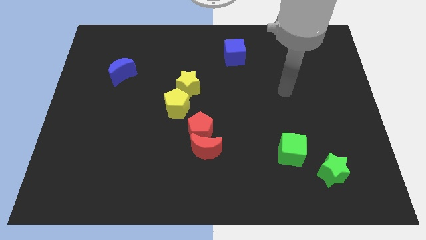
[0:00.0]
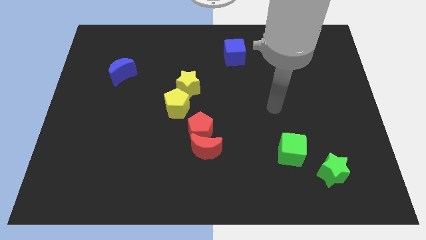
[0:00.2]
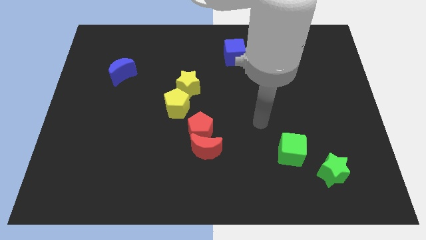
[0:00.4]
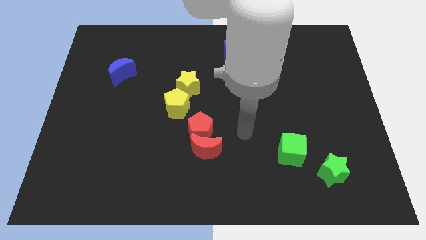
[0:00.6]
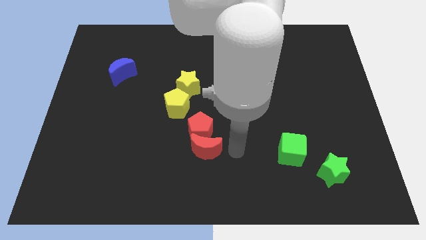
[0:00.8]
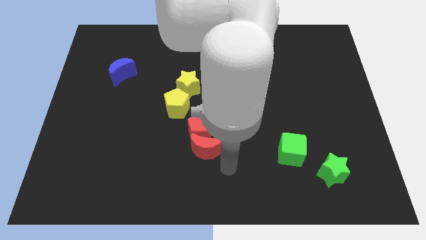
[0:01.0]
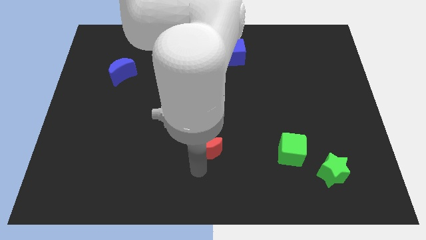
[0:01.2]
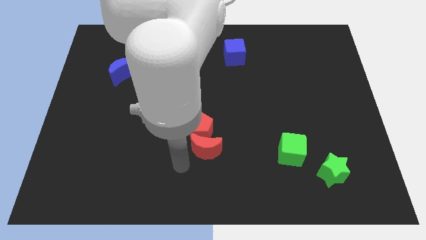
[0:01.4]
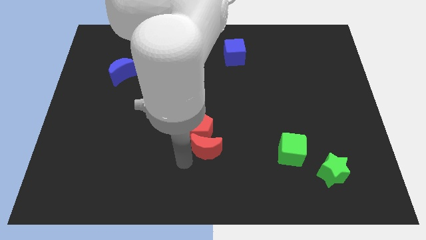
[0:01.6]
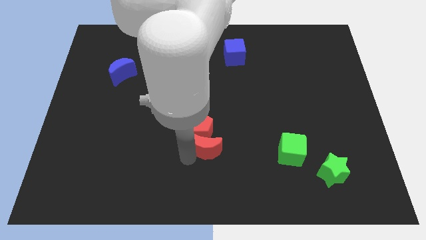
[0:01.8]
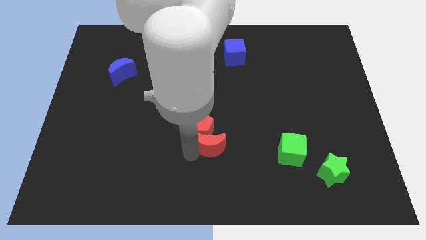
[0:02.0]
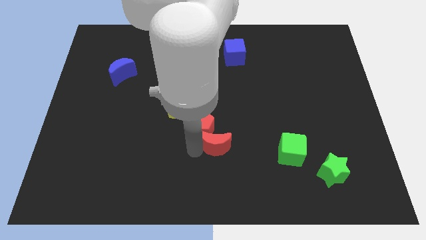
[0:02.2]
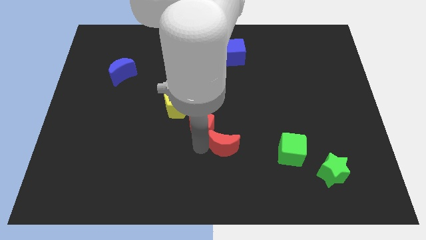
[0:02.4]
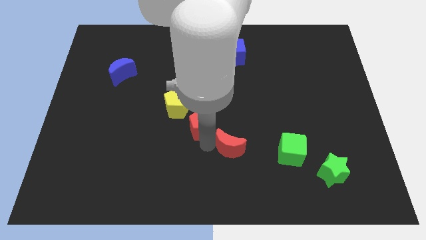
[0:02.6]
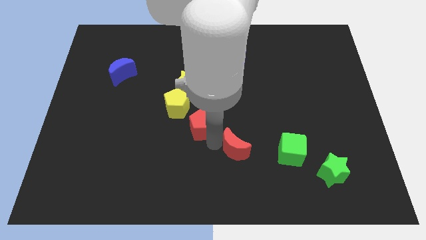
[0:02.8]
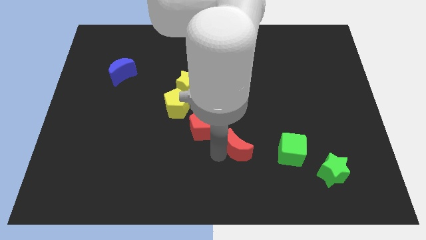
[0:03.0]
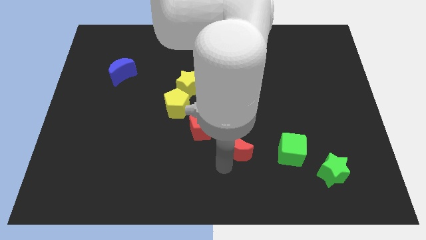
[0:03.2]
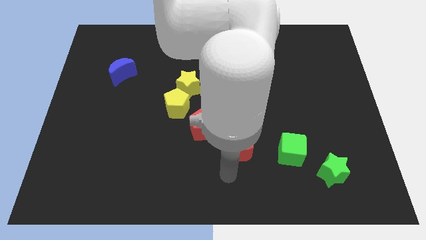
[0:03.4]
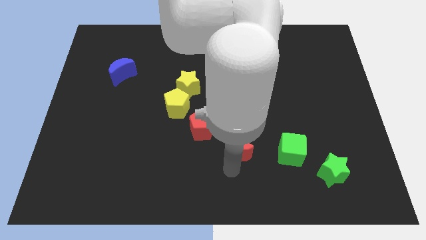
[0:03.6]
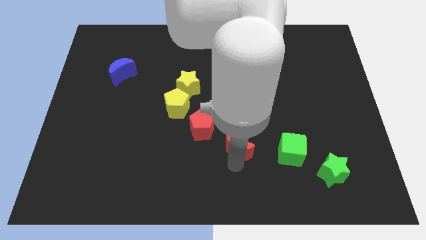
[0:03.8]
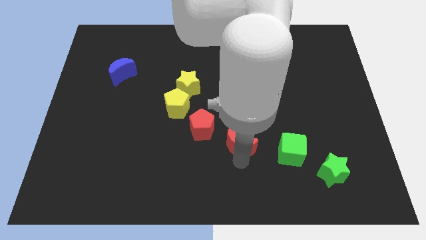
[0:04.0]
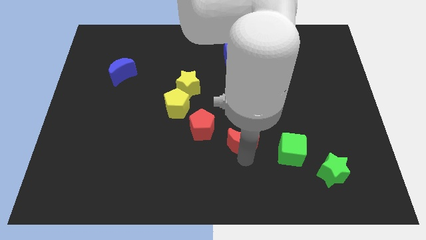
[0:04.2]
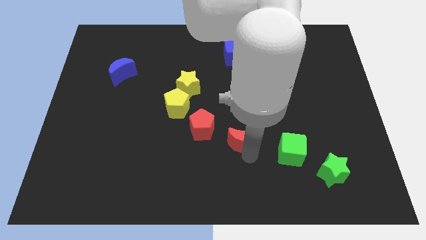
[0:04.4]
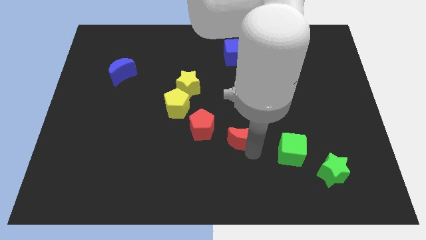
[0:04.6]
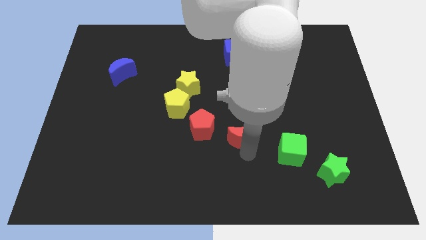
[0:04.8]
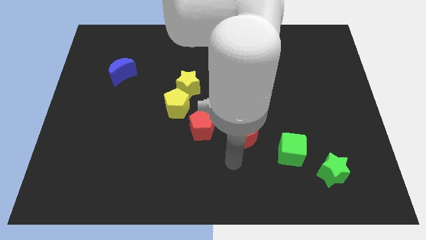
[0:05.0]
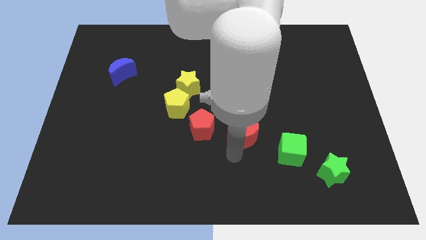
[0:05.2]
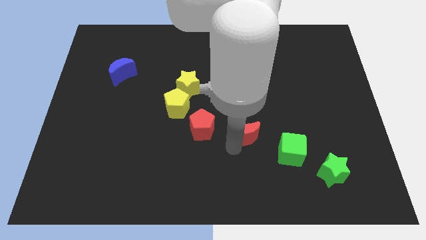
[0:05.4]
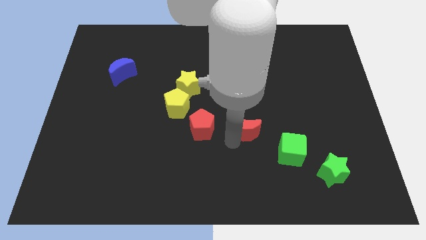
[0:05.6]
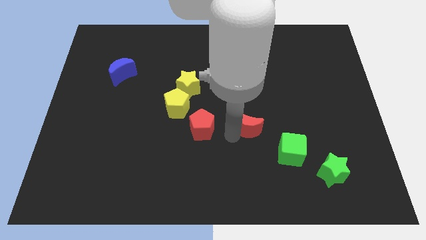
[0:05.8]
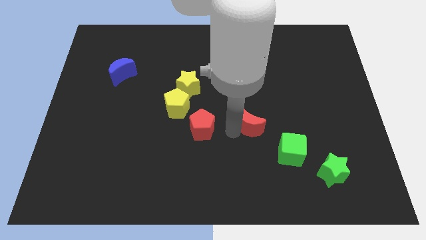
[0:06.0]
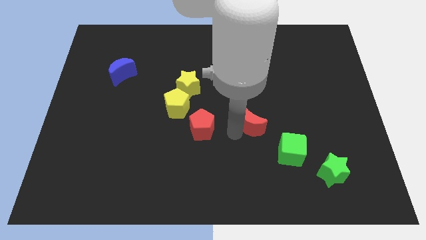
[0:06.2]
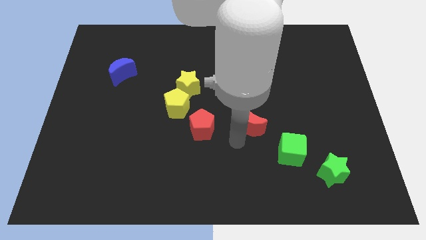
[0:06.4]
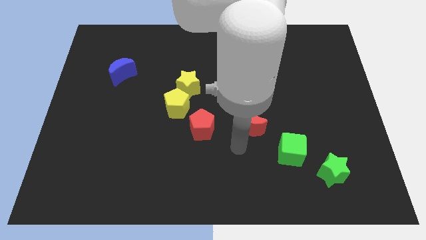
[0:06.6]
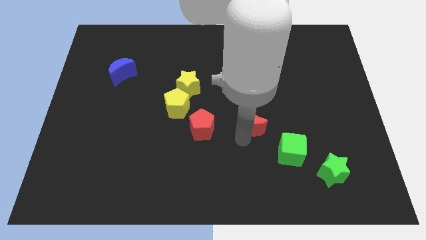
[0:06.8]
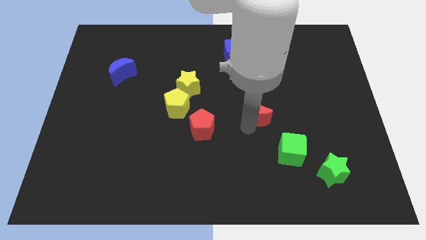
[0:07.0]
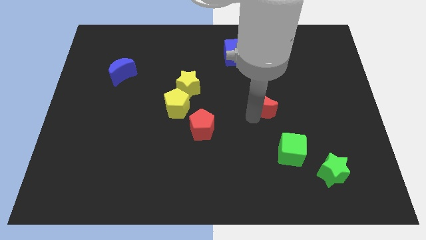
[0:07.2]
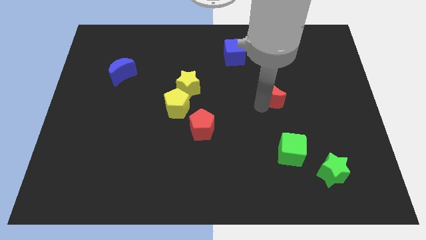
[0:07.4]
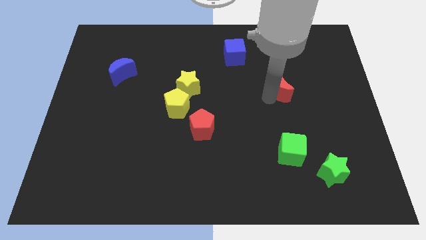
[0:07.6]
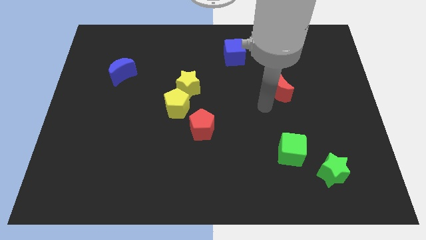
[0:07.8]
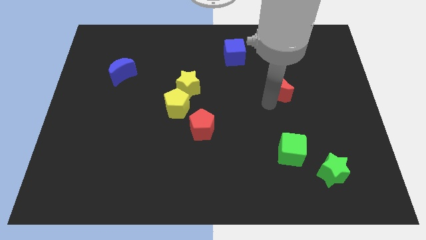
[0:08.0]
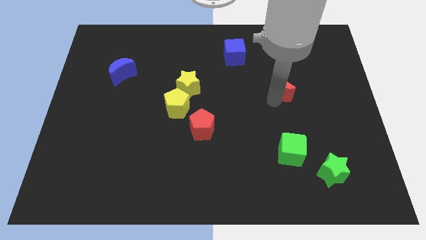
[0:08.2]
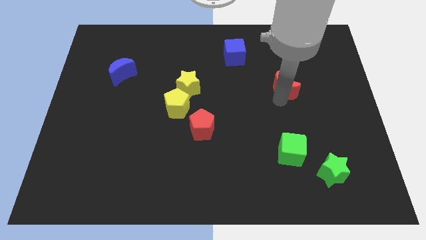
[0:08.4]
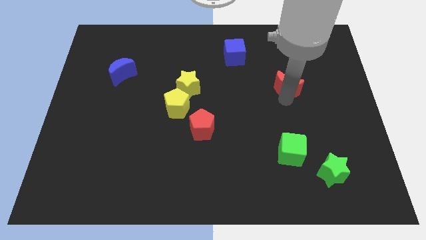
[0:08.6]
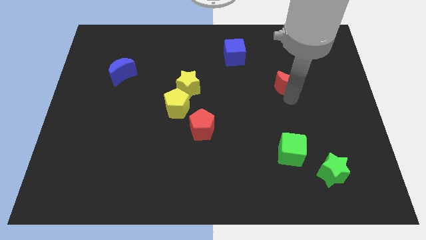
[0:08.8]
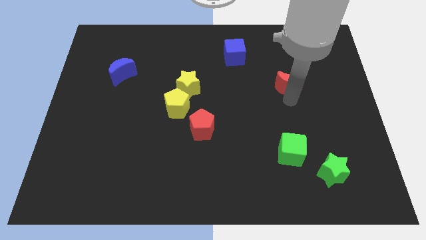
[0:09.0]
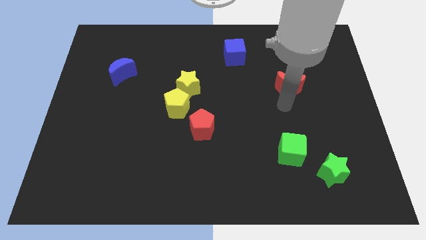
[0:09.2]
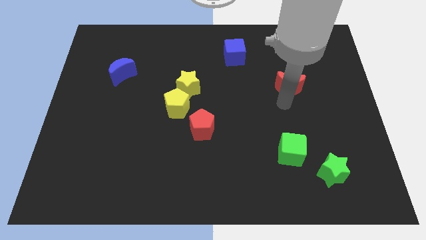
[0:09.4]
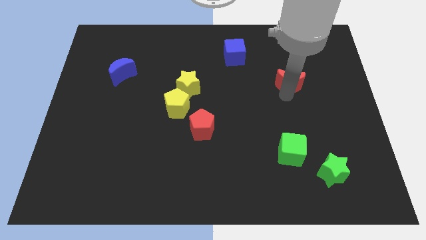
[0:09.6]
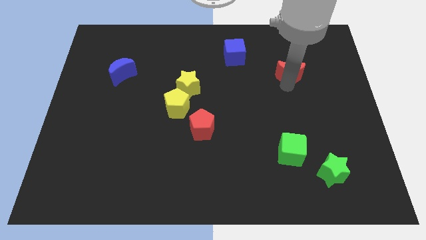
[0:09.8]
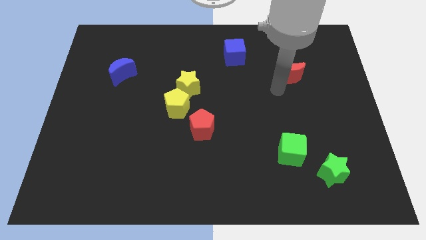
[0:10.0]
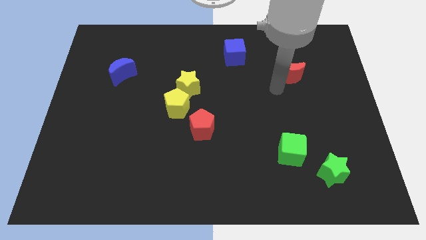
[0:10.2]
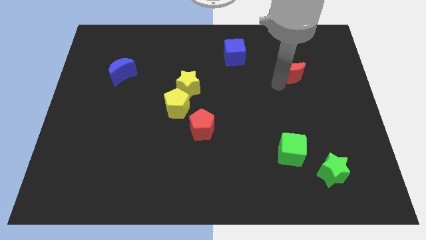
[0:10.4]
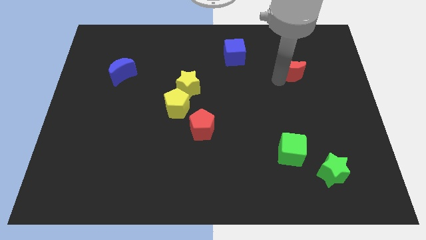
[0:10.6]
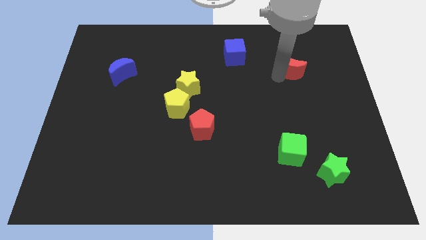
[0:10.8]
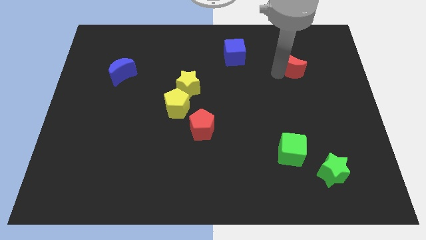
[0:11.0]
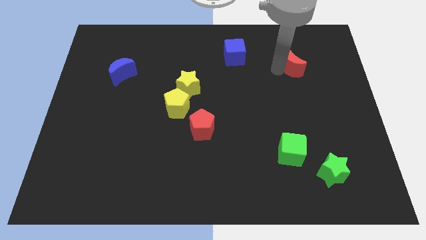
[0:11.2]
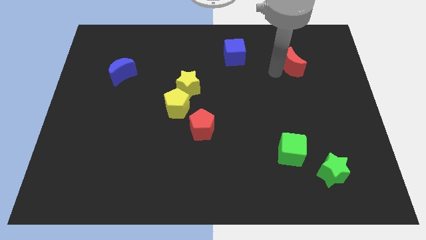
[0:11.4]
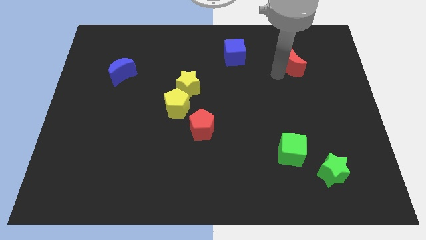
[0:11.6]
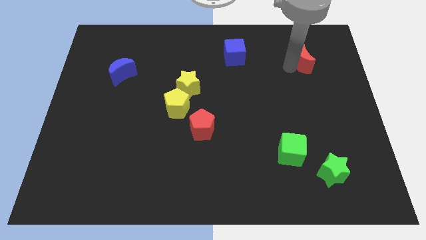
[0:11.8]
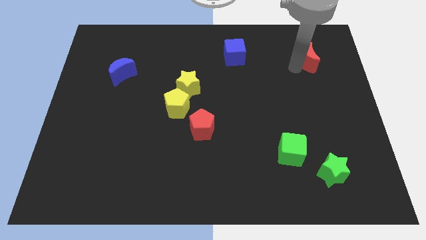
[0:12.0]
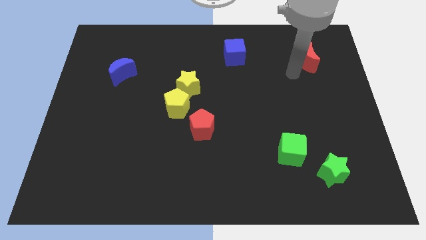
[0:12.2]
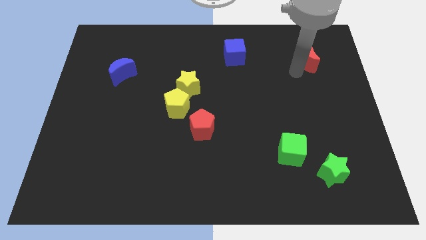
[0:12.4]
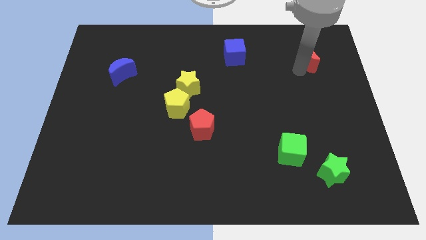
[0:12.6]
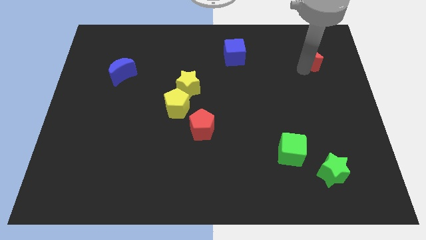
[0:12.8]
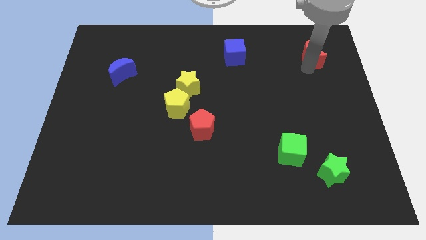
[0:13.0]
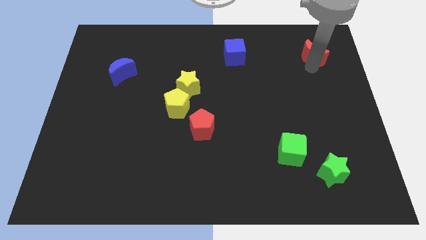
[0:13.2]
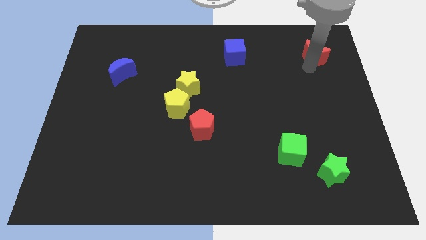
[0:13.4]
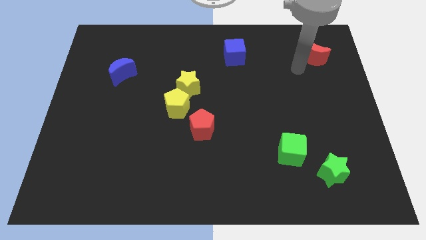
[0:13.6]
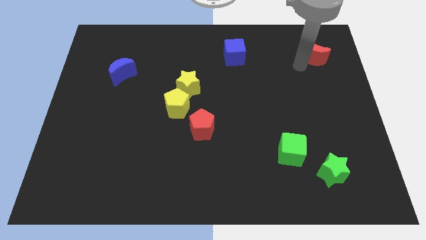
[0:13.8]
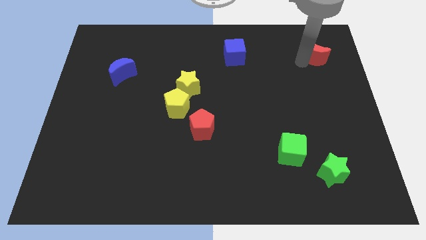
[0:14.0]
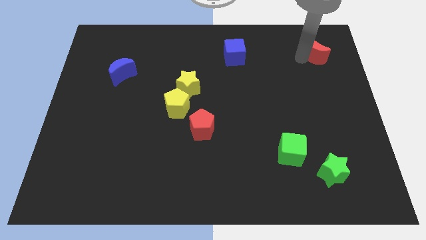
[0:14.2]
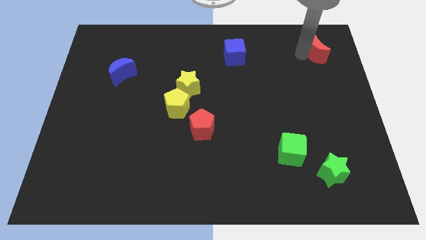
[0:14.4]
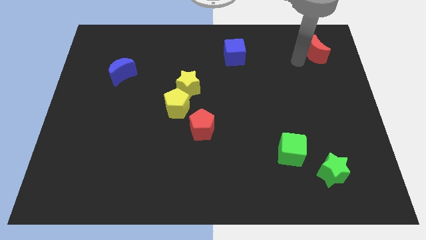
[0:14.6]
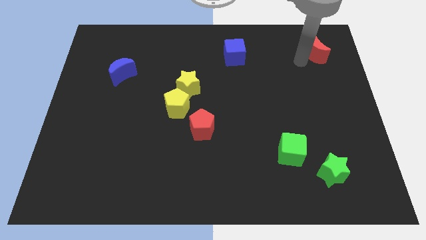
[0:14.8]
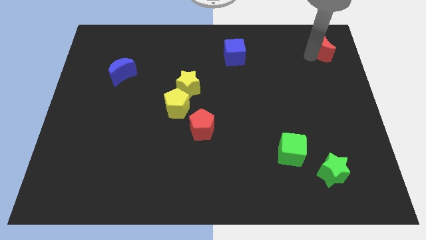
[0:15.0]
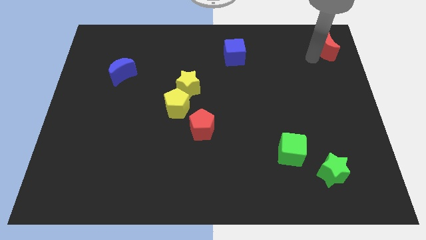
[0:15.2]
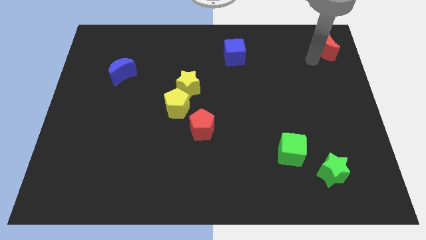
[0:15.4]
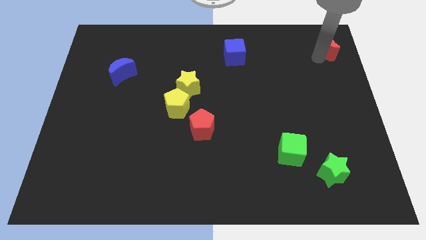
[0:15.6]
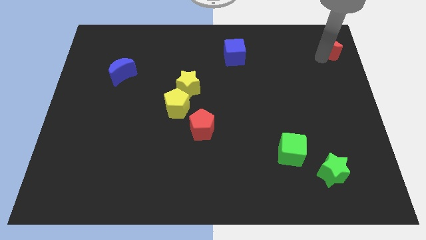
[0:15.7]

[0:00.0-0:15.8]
slide the red moon to the upper right corner
